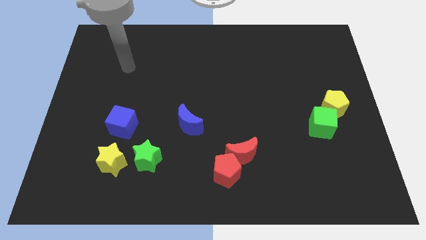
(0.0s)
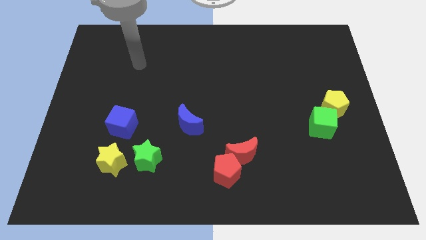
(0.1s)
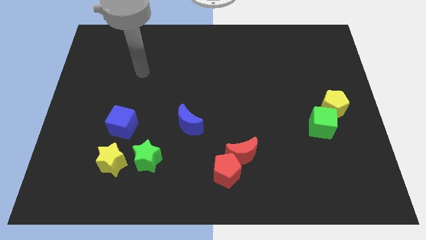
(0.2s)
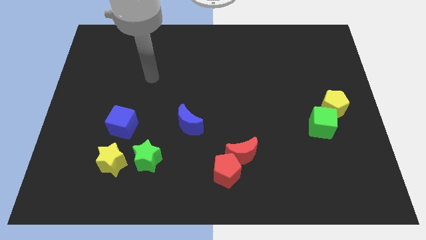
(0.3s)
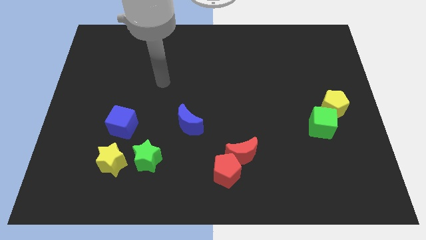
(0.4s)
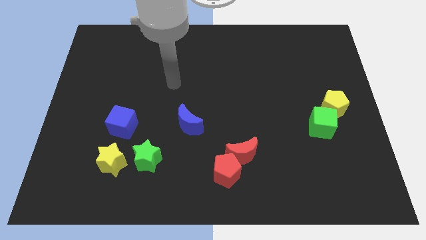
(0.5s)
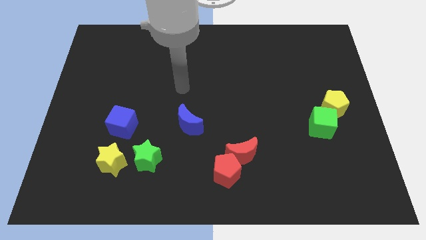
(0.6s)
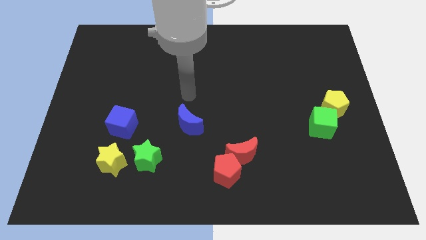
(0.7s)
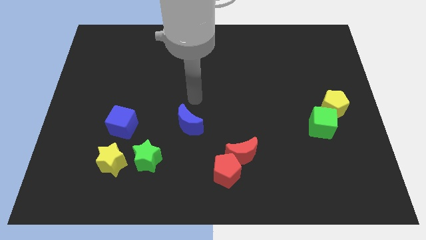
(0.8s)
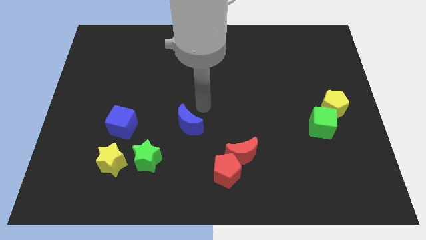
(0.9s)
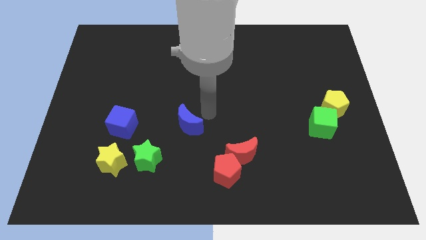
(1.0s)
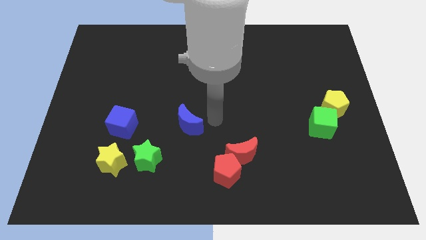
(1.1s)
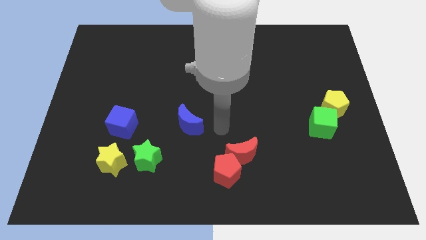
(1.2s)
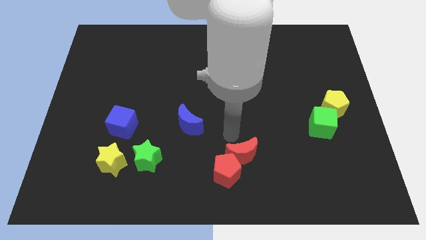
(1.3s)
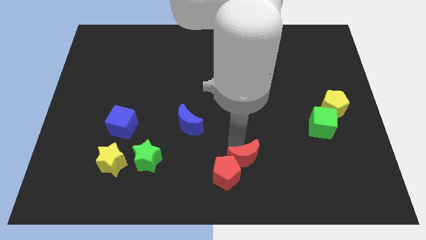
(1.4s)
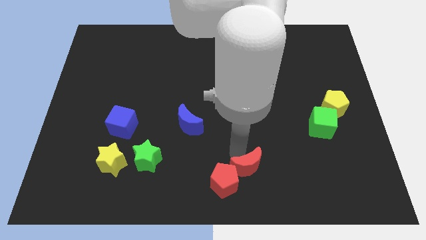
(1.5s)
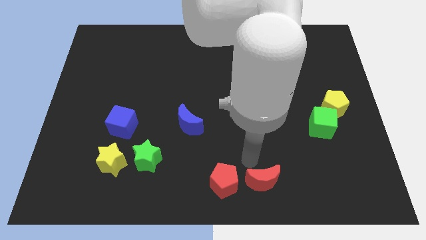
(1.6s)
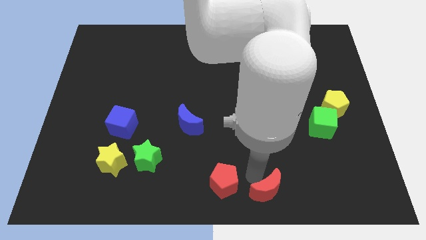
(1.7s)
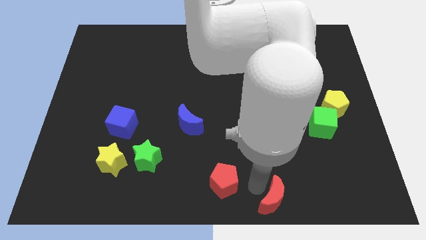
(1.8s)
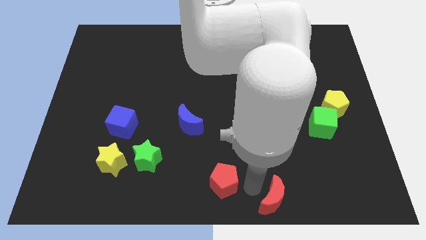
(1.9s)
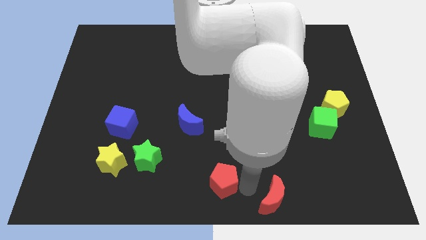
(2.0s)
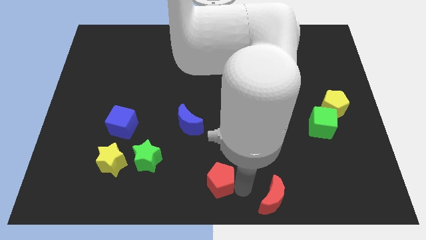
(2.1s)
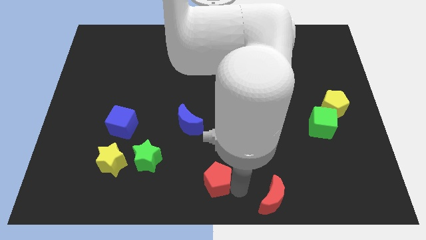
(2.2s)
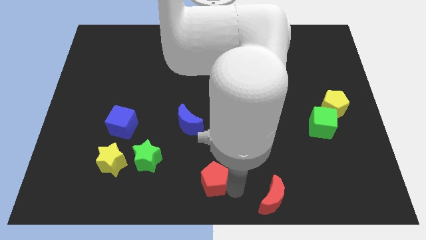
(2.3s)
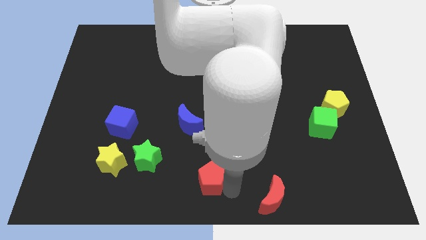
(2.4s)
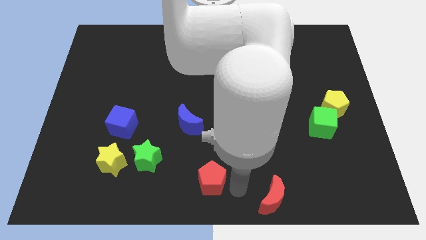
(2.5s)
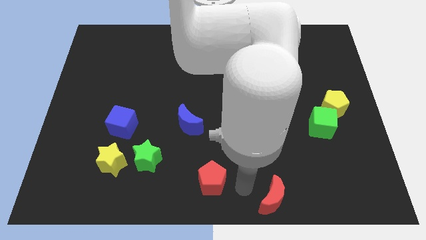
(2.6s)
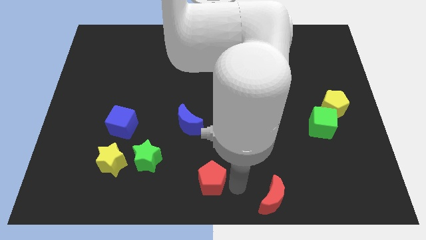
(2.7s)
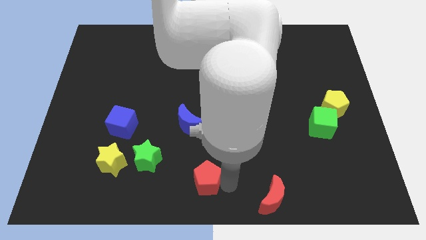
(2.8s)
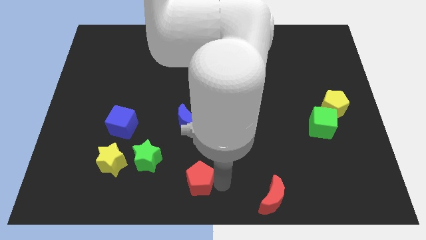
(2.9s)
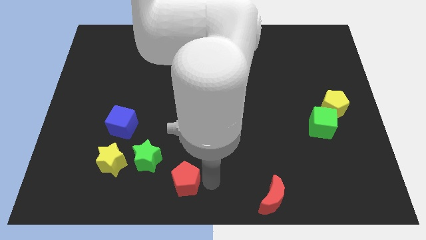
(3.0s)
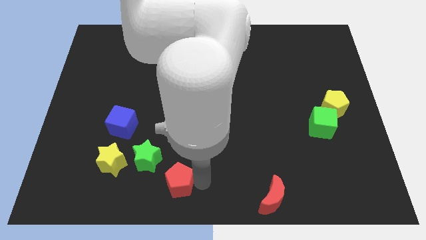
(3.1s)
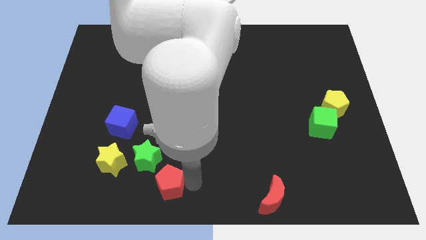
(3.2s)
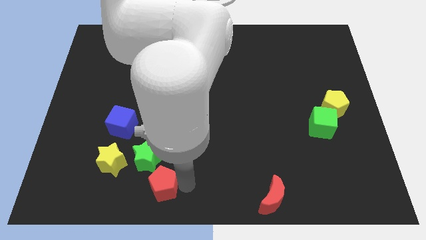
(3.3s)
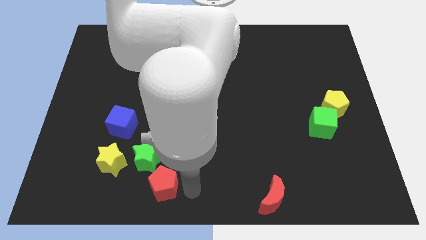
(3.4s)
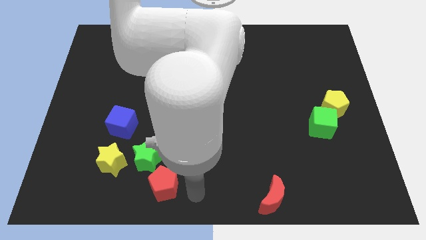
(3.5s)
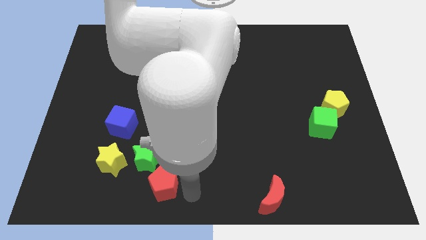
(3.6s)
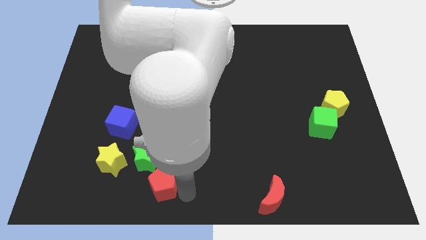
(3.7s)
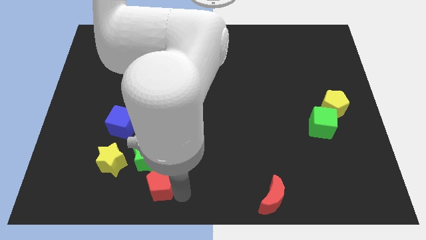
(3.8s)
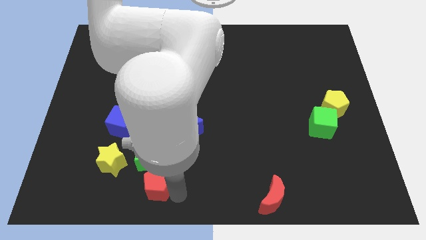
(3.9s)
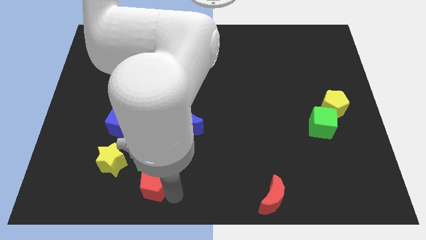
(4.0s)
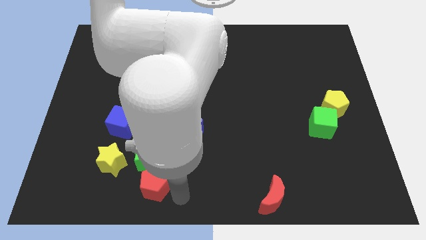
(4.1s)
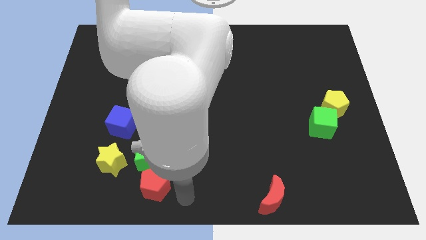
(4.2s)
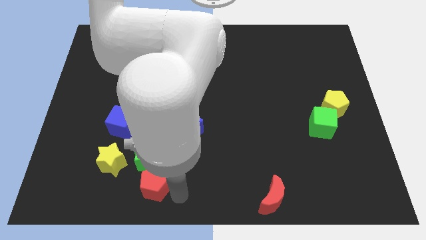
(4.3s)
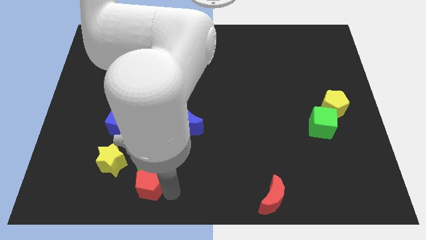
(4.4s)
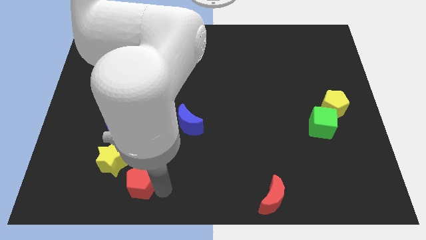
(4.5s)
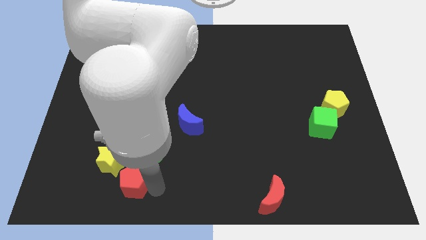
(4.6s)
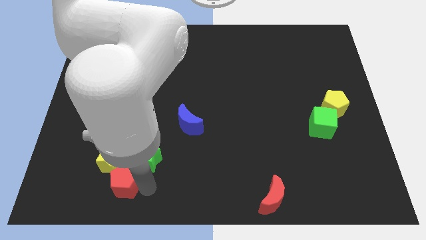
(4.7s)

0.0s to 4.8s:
put the red pentagon next to the yellow star

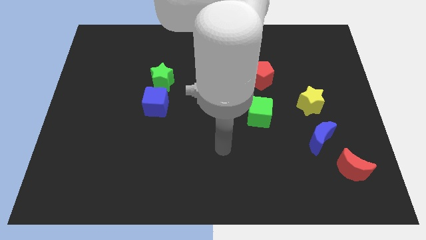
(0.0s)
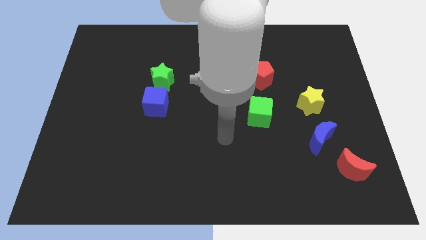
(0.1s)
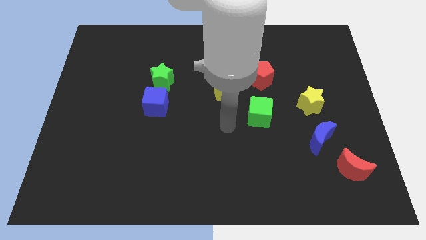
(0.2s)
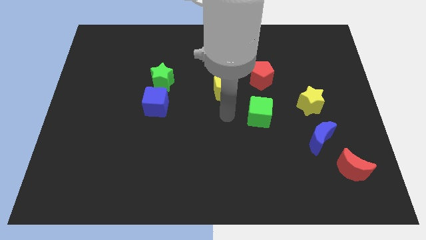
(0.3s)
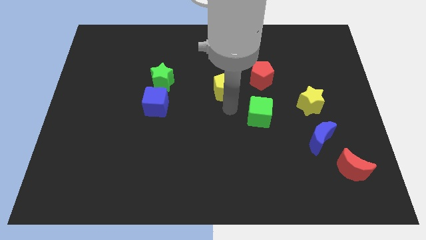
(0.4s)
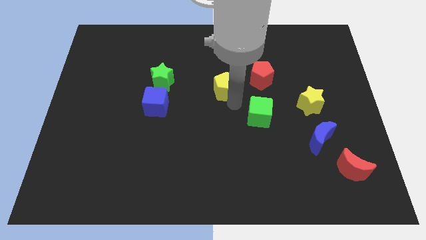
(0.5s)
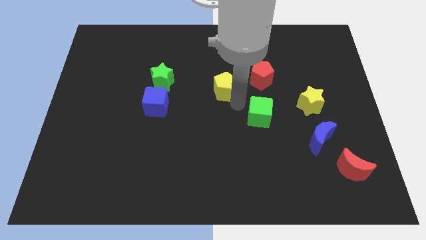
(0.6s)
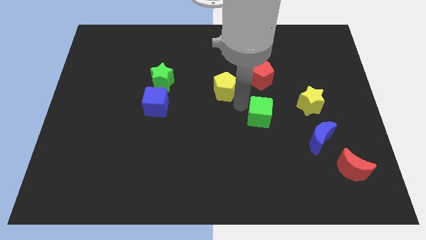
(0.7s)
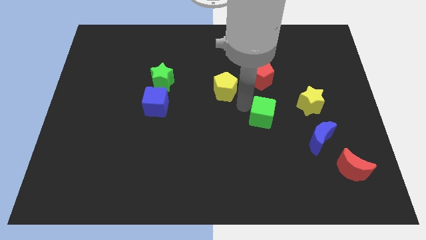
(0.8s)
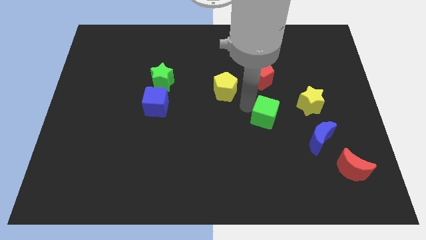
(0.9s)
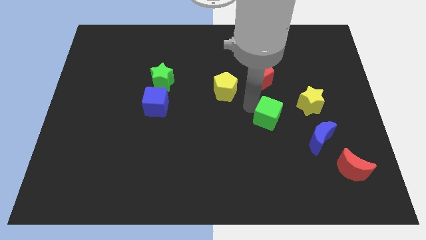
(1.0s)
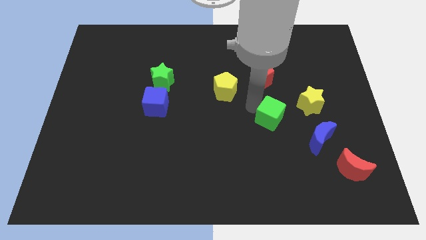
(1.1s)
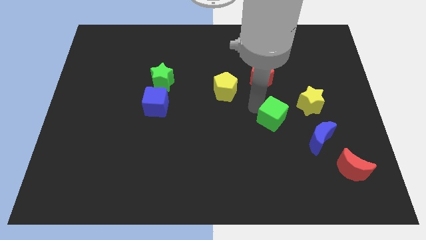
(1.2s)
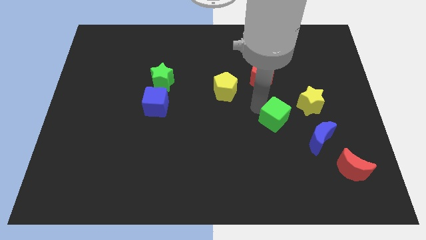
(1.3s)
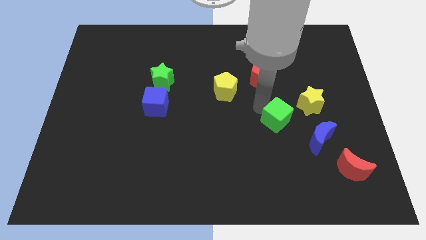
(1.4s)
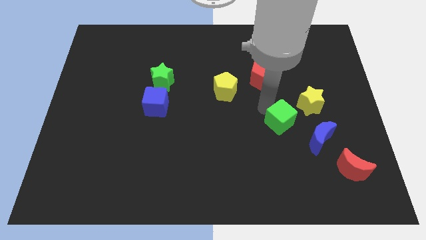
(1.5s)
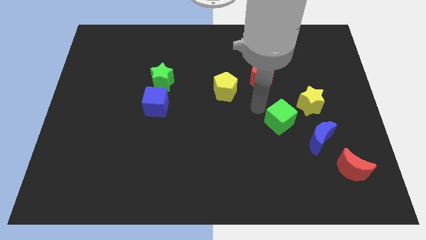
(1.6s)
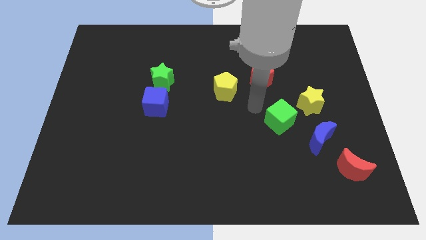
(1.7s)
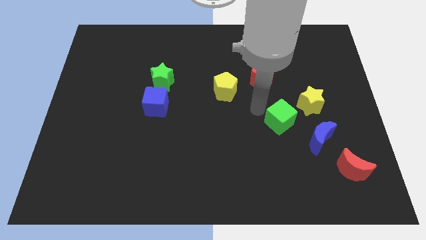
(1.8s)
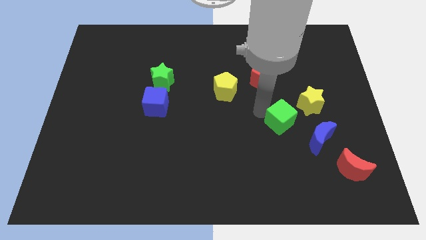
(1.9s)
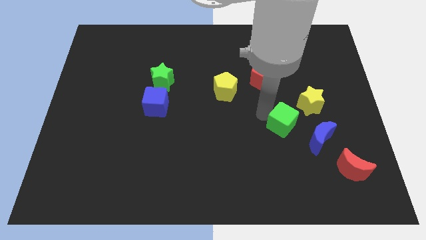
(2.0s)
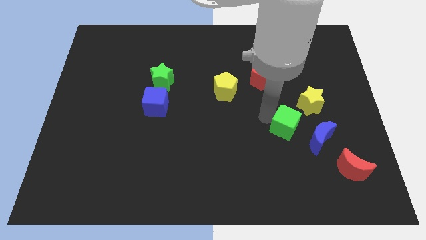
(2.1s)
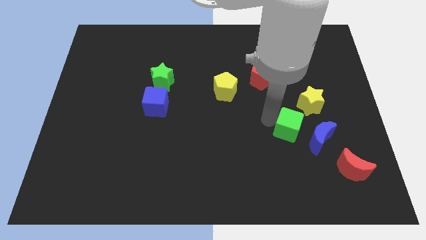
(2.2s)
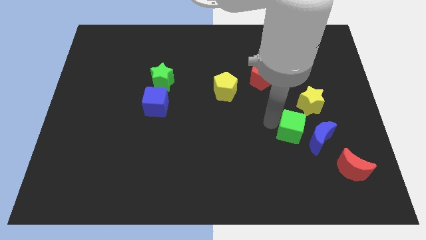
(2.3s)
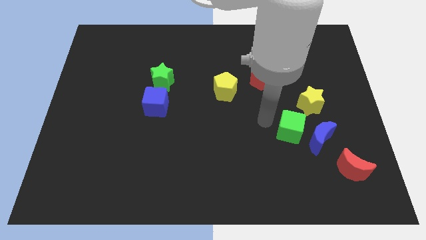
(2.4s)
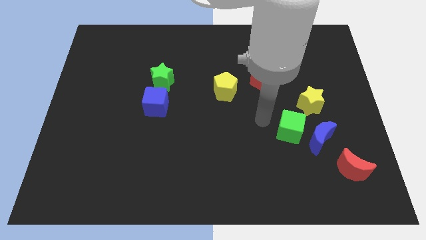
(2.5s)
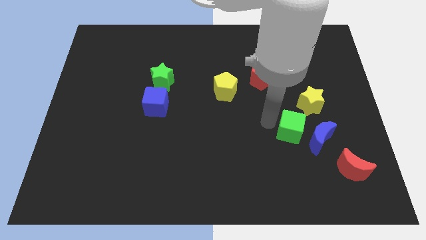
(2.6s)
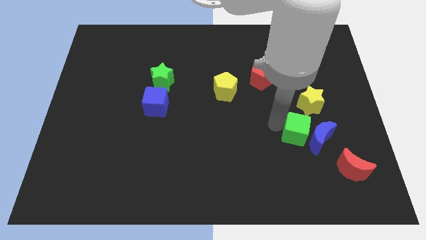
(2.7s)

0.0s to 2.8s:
push the green cube to the blue moon

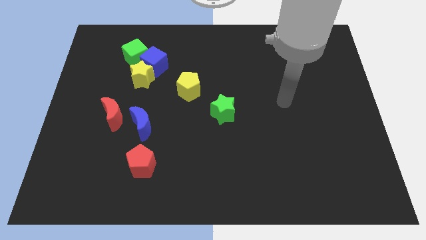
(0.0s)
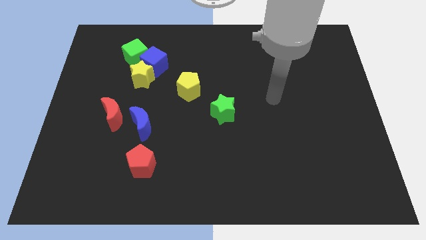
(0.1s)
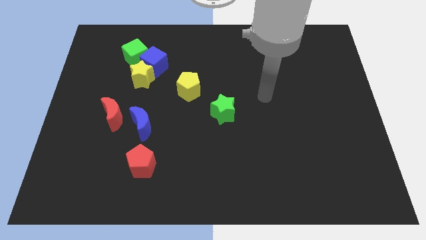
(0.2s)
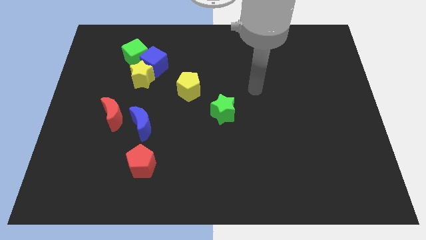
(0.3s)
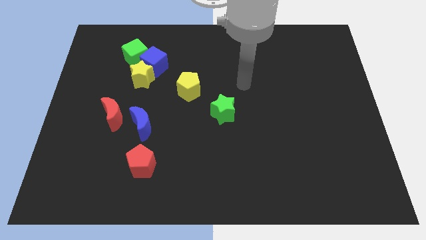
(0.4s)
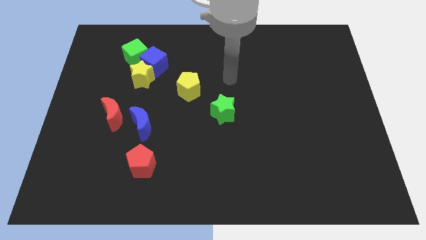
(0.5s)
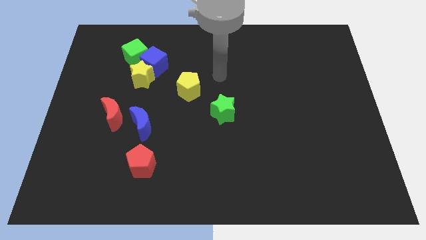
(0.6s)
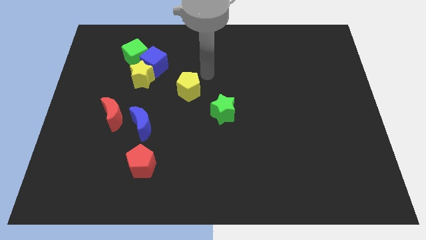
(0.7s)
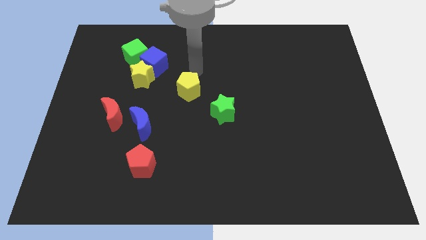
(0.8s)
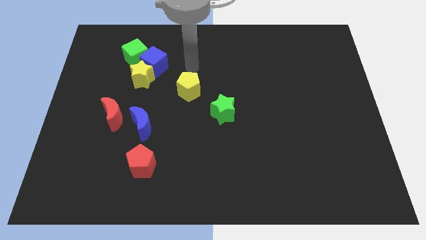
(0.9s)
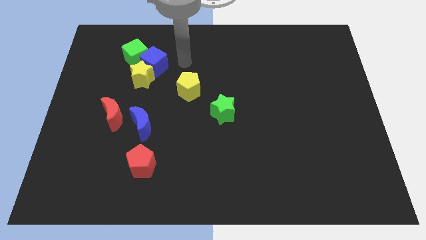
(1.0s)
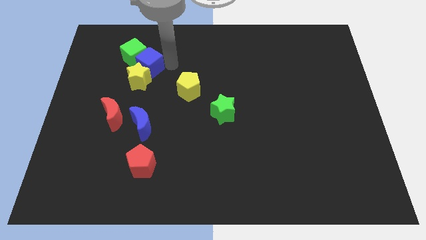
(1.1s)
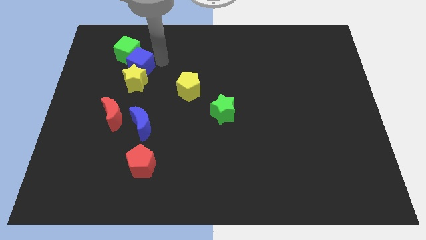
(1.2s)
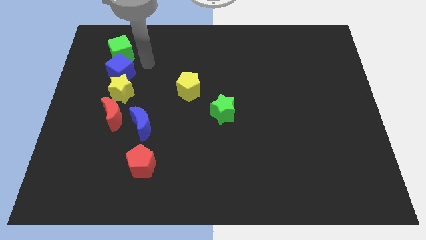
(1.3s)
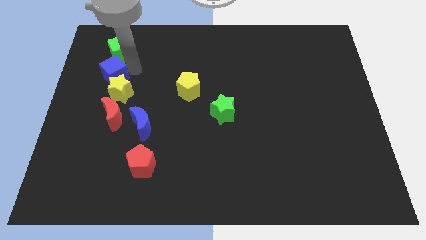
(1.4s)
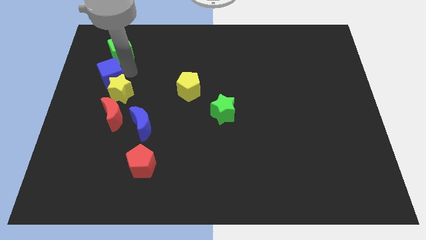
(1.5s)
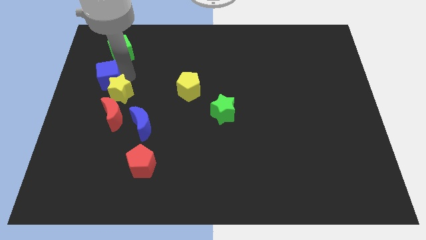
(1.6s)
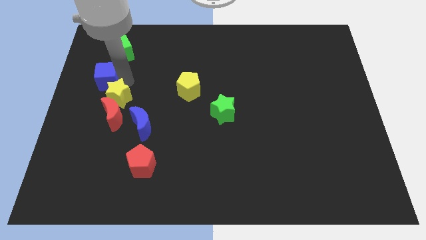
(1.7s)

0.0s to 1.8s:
push the yellow star close to the red moon
